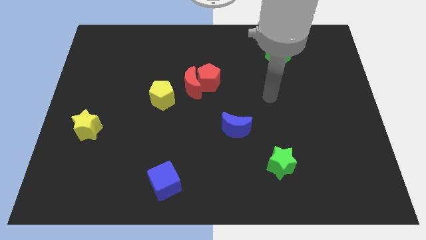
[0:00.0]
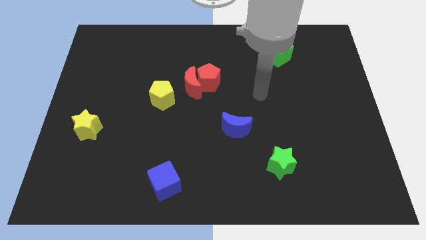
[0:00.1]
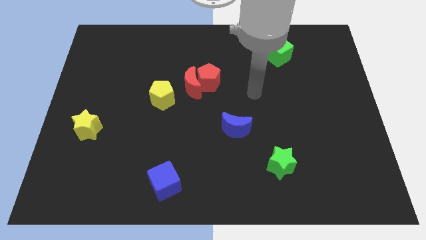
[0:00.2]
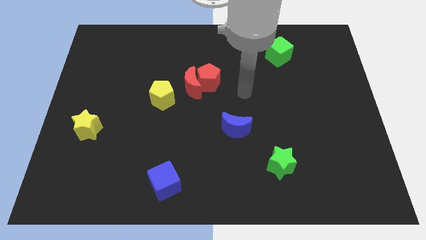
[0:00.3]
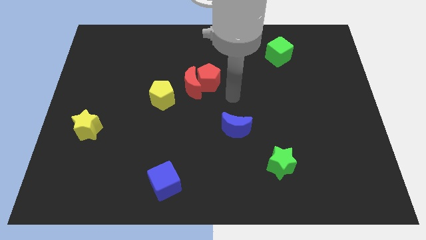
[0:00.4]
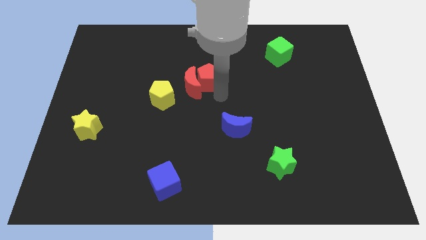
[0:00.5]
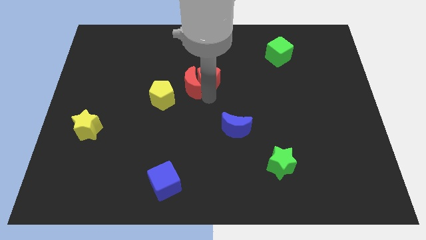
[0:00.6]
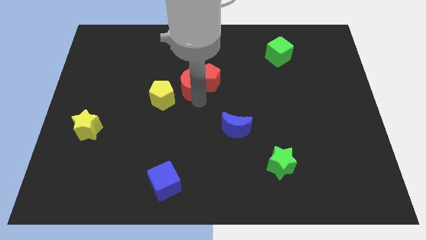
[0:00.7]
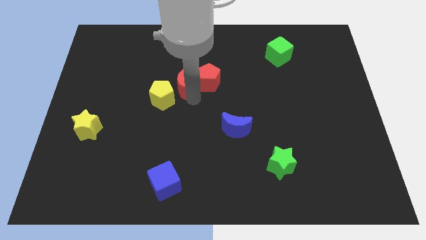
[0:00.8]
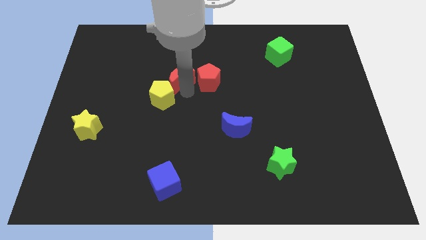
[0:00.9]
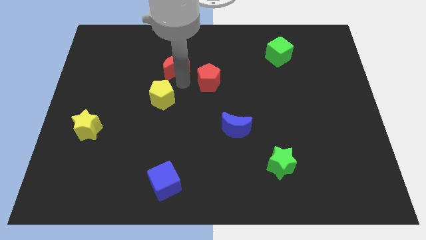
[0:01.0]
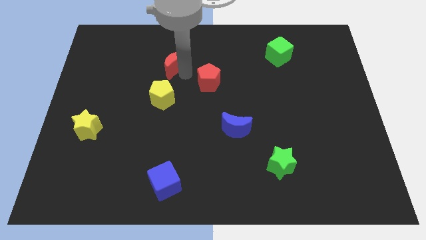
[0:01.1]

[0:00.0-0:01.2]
separate the red pentagon from the red moon

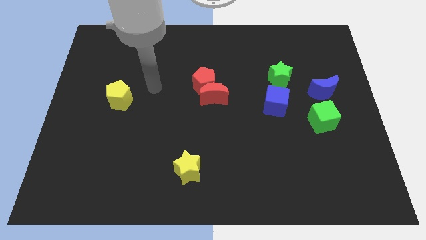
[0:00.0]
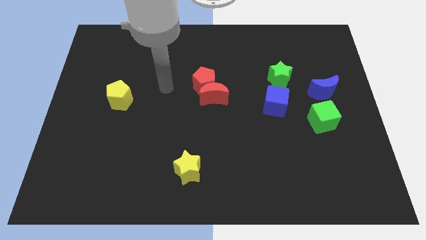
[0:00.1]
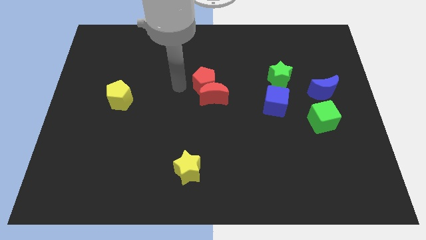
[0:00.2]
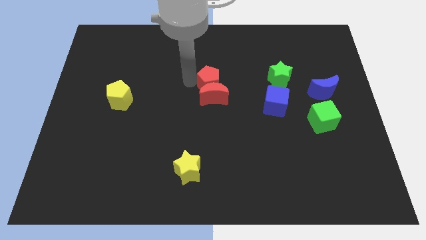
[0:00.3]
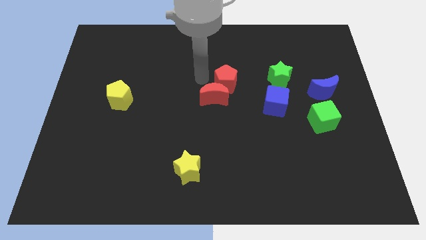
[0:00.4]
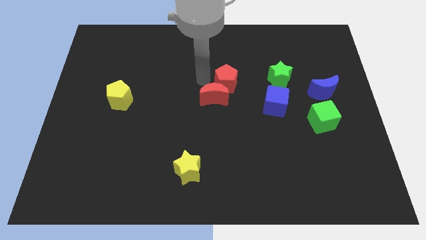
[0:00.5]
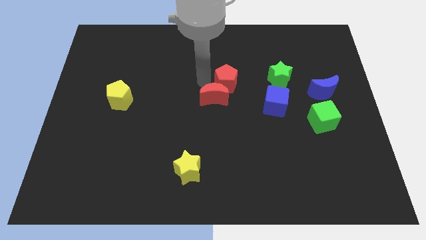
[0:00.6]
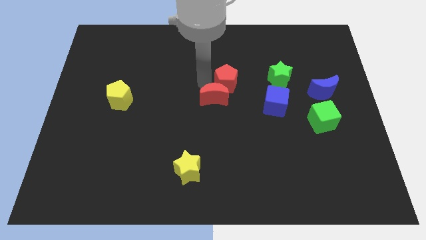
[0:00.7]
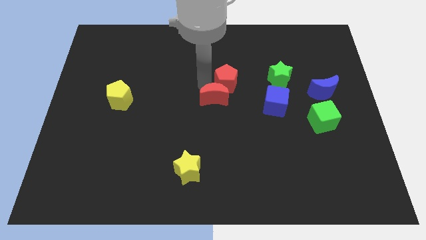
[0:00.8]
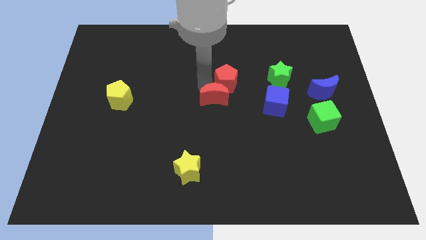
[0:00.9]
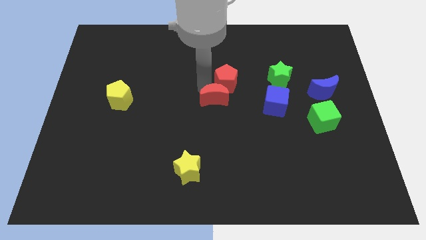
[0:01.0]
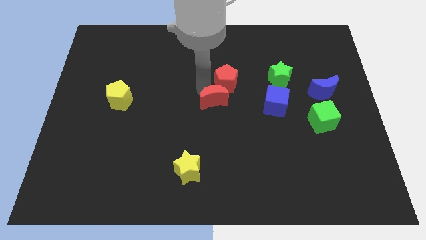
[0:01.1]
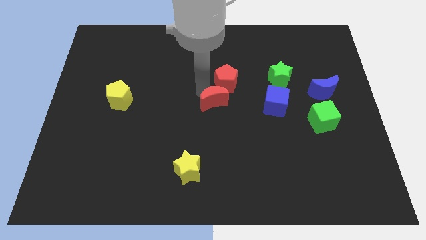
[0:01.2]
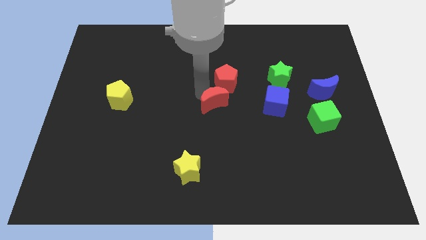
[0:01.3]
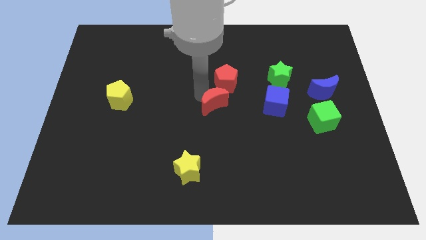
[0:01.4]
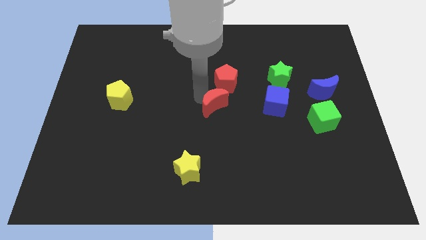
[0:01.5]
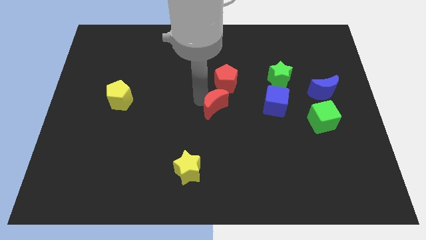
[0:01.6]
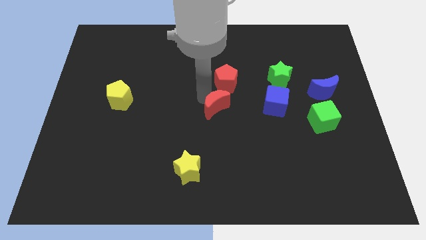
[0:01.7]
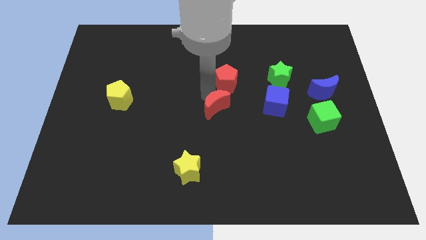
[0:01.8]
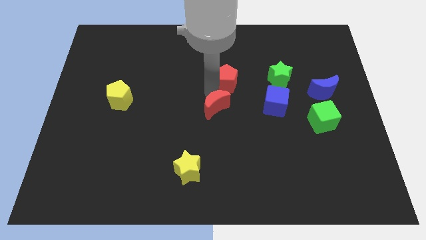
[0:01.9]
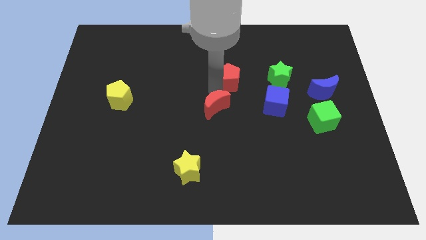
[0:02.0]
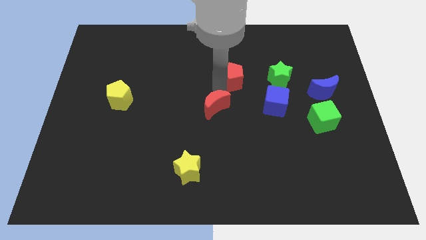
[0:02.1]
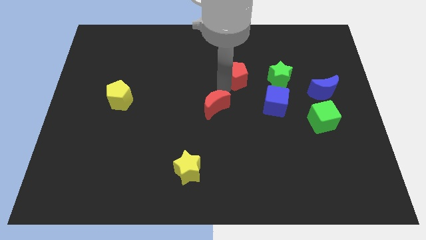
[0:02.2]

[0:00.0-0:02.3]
pull the red moon apart from the red pentagon

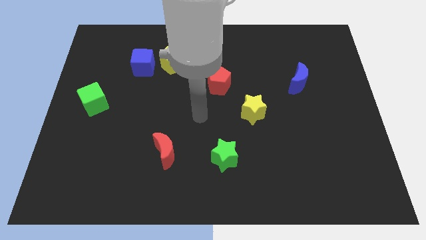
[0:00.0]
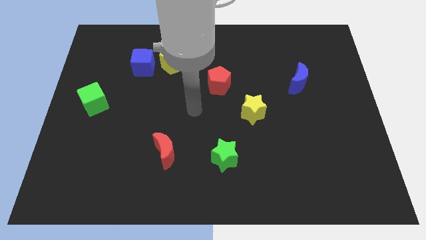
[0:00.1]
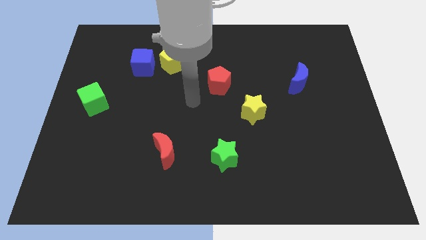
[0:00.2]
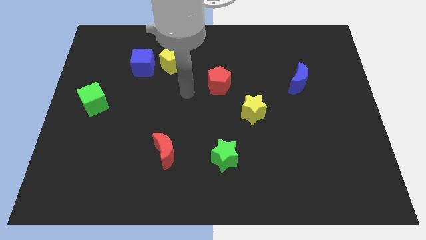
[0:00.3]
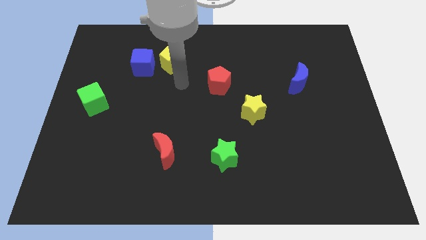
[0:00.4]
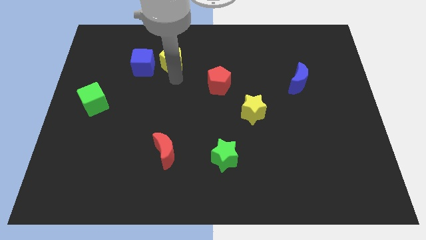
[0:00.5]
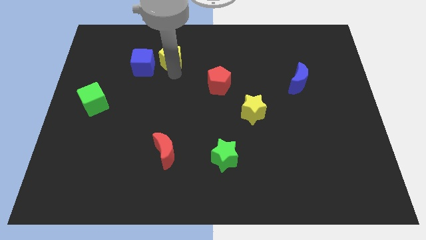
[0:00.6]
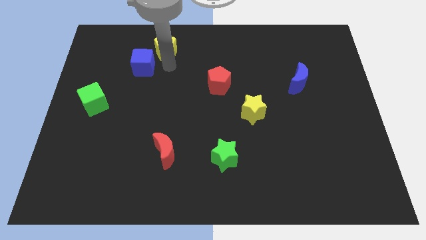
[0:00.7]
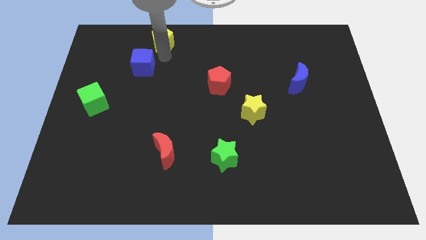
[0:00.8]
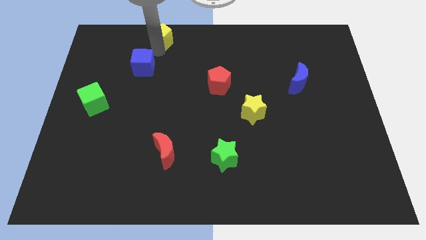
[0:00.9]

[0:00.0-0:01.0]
move the blue cube away from the yellow pentagon

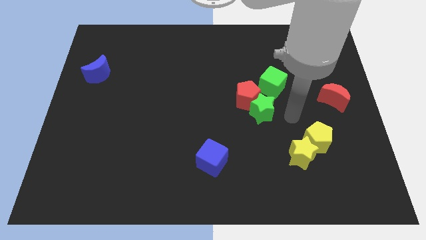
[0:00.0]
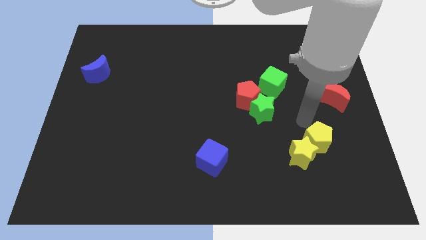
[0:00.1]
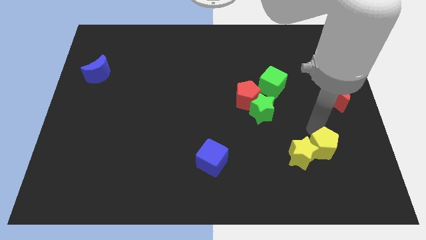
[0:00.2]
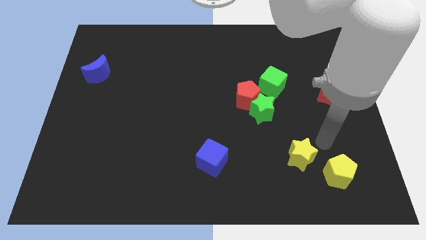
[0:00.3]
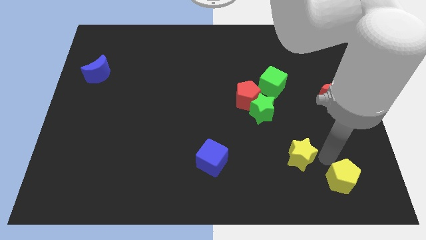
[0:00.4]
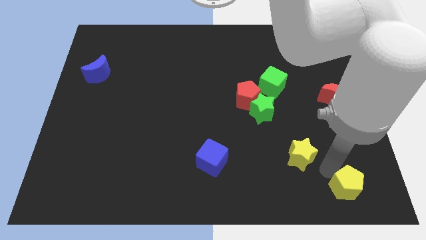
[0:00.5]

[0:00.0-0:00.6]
separate the yellow star from the yellow pentagon

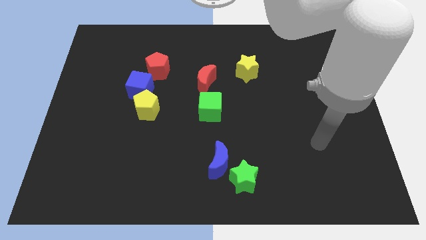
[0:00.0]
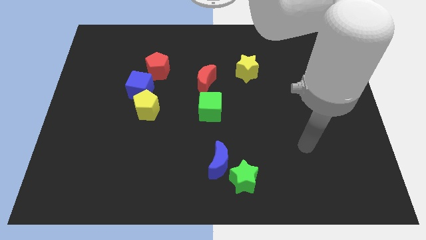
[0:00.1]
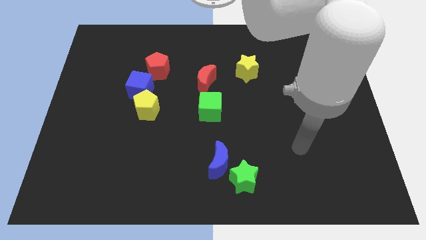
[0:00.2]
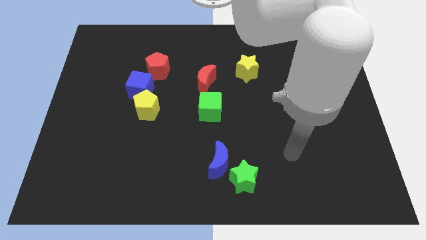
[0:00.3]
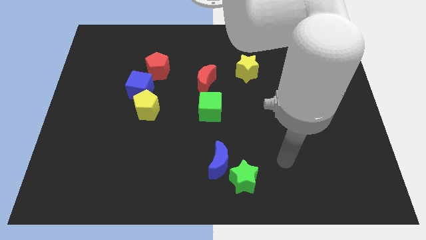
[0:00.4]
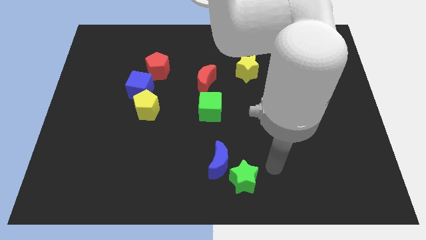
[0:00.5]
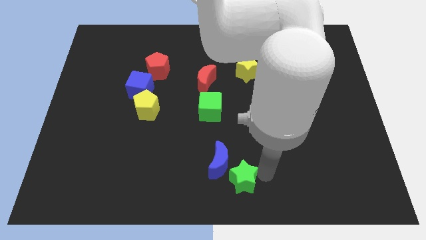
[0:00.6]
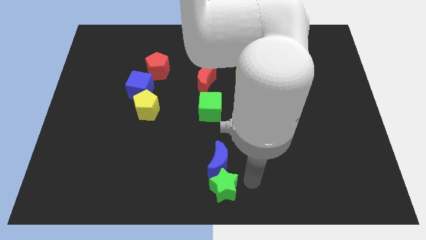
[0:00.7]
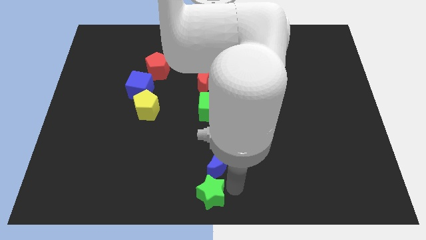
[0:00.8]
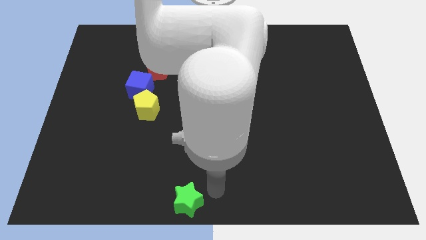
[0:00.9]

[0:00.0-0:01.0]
separate the blue moon from the green star

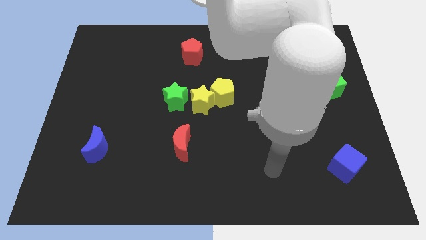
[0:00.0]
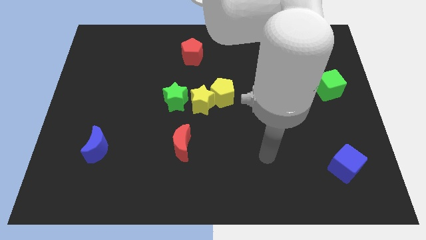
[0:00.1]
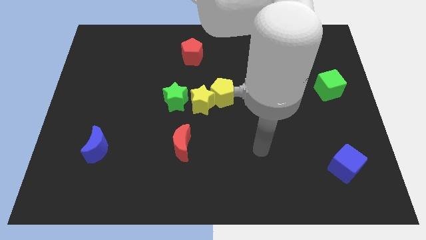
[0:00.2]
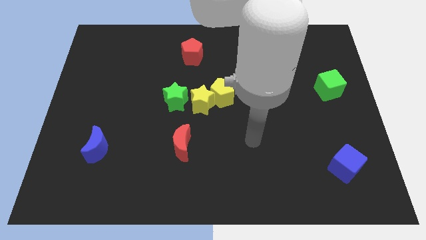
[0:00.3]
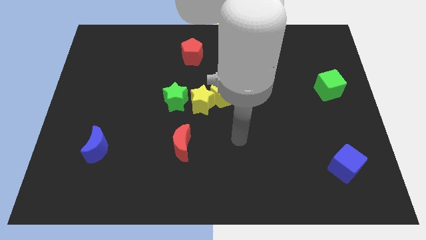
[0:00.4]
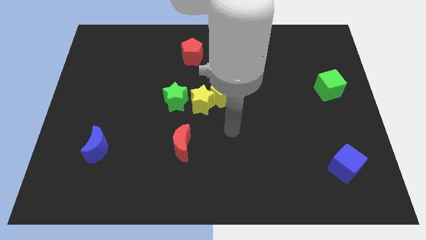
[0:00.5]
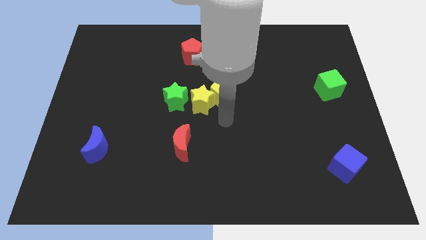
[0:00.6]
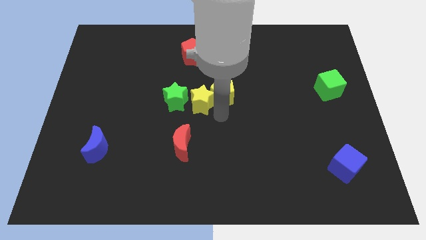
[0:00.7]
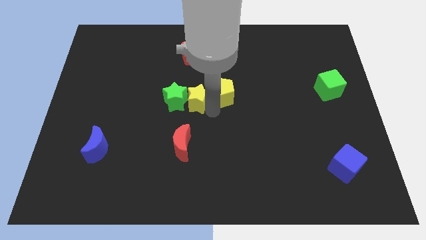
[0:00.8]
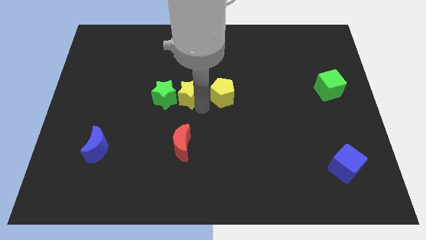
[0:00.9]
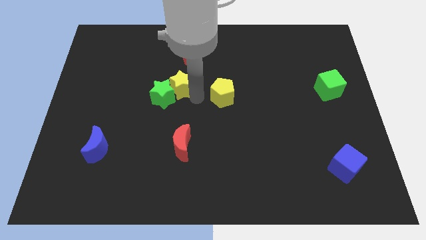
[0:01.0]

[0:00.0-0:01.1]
pull the yellow pentagon apart from the yellow star

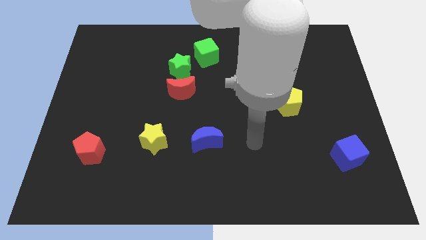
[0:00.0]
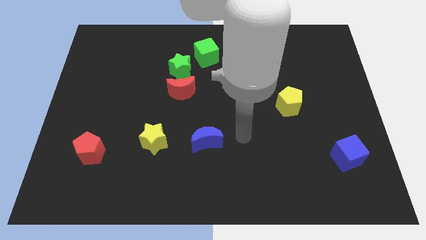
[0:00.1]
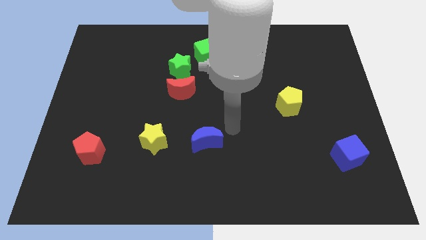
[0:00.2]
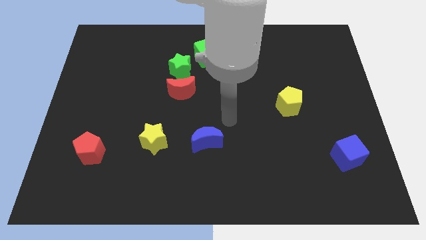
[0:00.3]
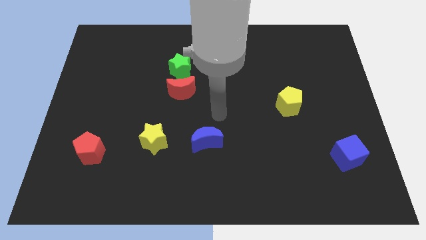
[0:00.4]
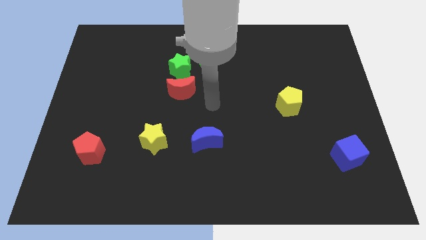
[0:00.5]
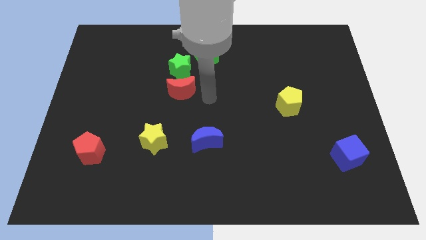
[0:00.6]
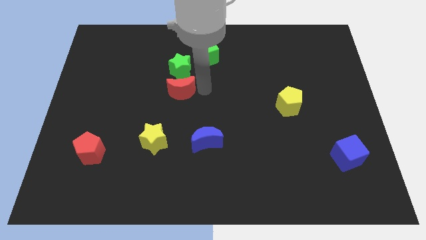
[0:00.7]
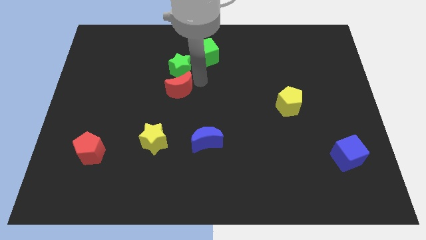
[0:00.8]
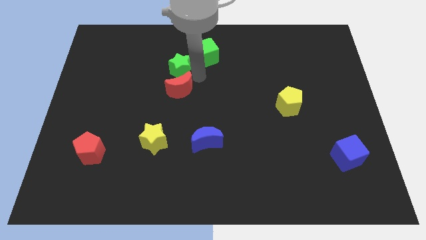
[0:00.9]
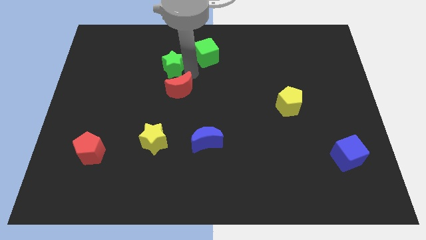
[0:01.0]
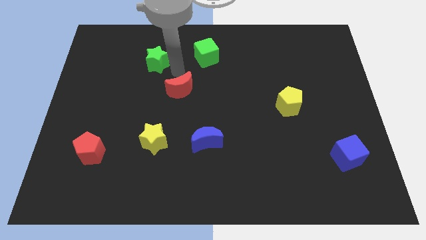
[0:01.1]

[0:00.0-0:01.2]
move the red moon away from the green star

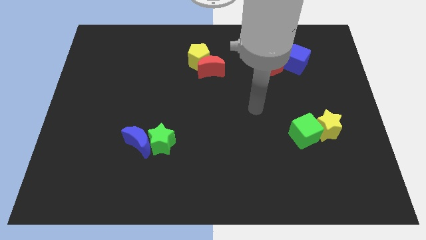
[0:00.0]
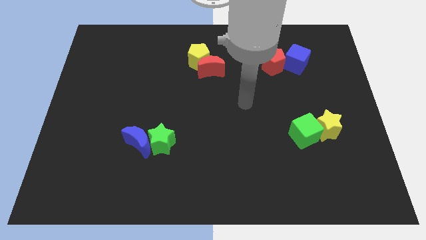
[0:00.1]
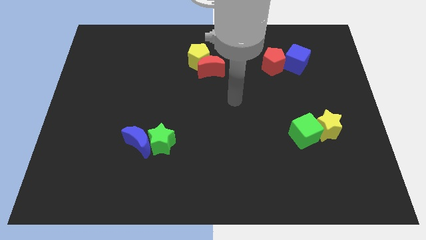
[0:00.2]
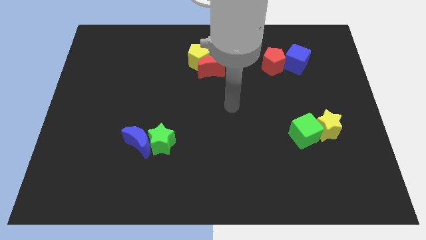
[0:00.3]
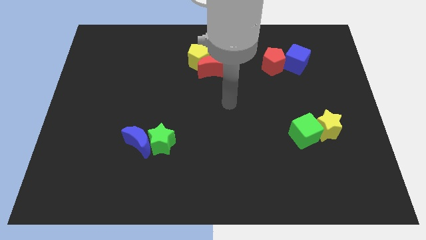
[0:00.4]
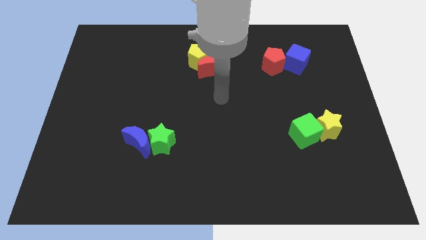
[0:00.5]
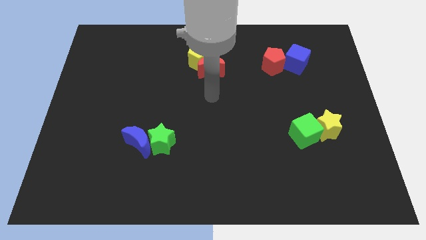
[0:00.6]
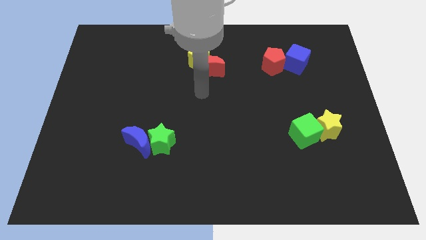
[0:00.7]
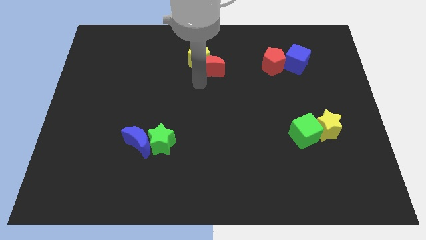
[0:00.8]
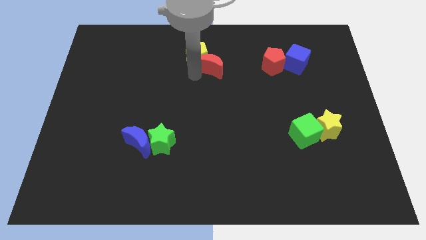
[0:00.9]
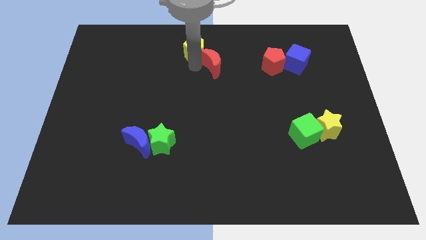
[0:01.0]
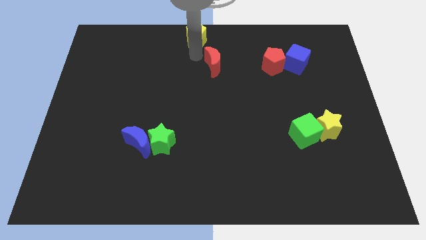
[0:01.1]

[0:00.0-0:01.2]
move the red moon away from the yellow pentagon
